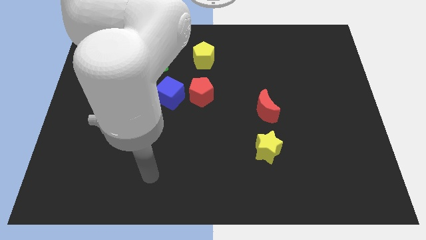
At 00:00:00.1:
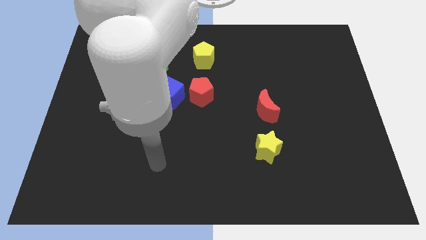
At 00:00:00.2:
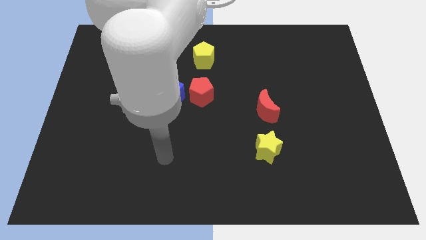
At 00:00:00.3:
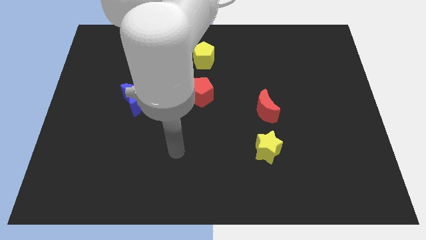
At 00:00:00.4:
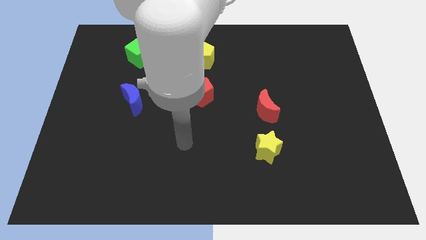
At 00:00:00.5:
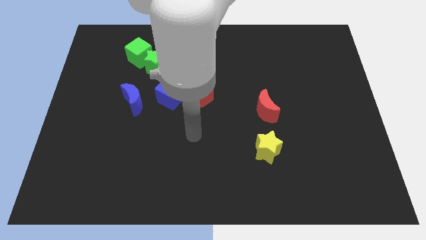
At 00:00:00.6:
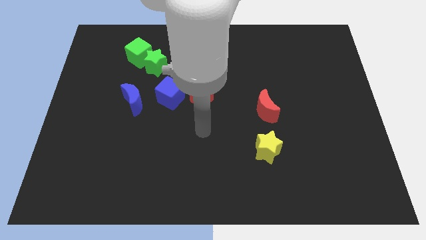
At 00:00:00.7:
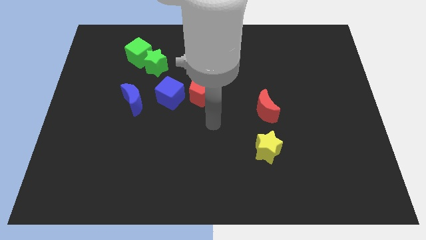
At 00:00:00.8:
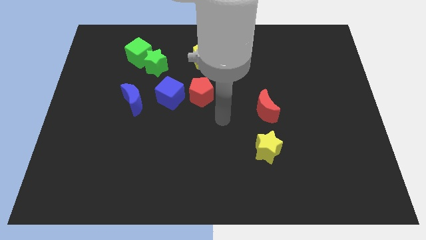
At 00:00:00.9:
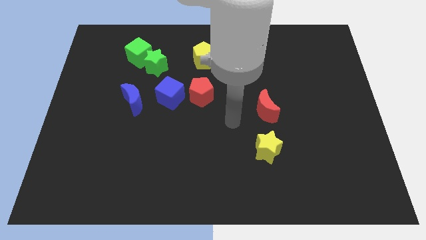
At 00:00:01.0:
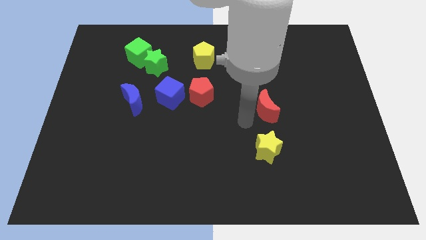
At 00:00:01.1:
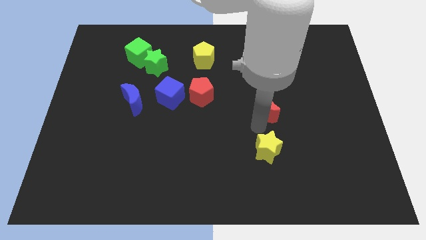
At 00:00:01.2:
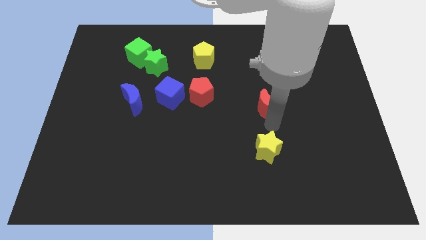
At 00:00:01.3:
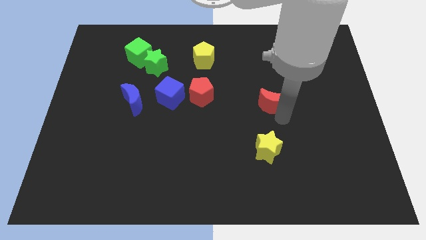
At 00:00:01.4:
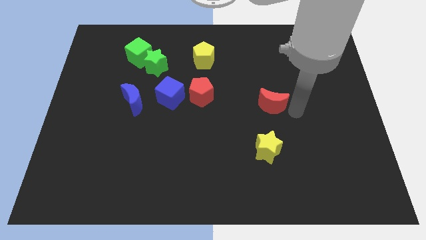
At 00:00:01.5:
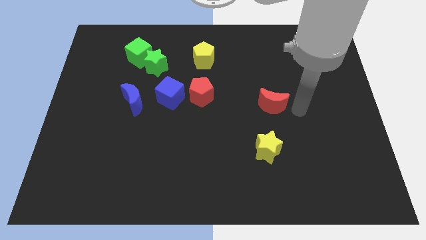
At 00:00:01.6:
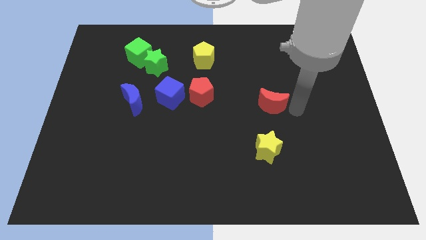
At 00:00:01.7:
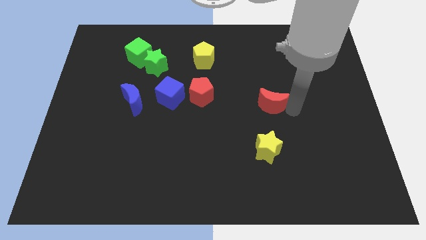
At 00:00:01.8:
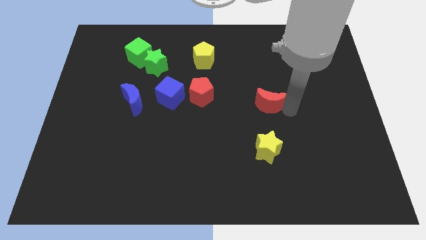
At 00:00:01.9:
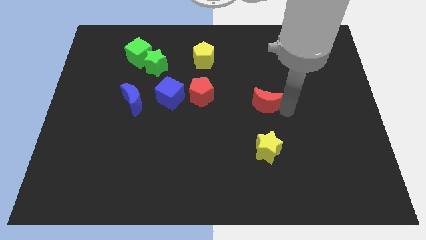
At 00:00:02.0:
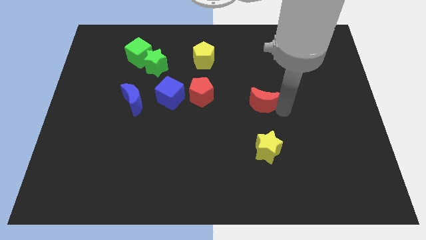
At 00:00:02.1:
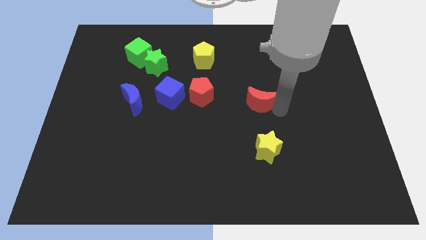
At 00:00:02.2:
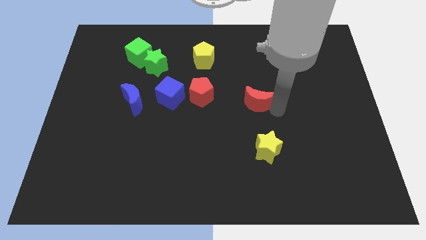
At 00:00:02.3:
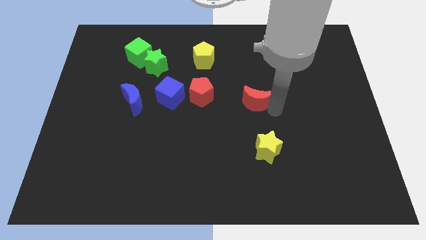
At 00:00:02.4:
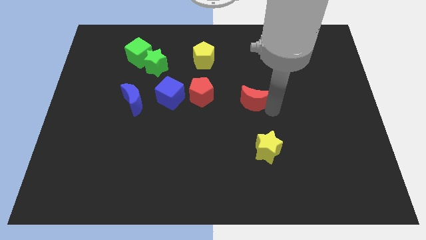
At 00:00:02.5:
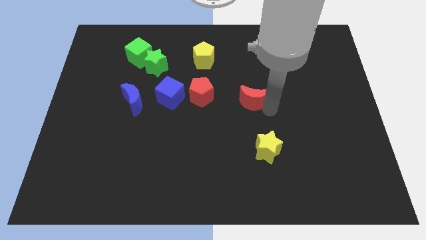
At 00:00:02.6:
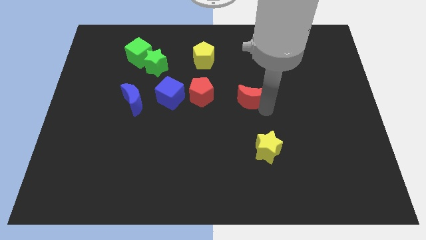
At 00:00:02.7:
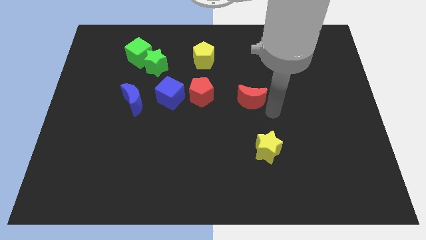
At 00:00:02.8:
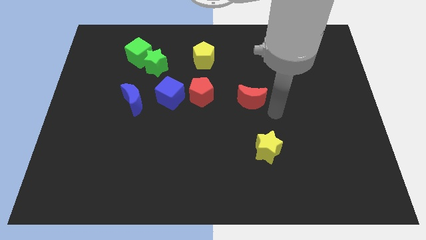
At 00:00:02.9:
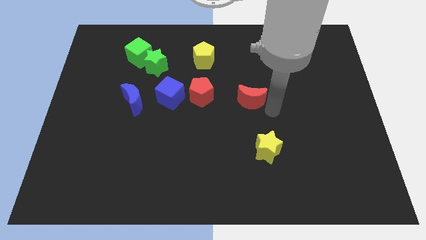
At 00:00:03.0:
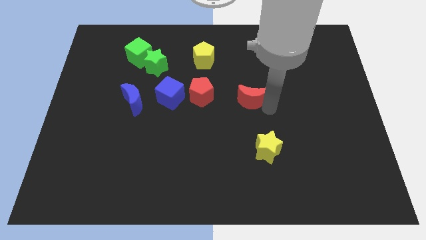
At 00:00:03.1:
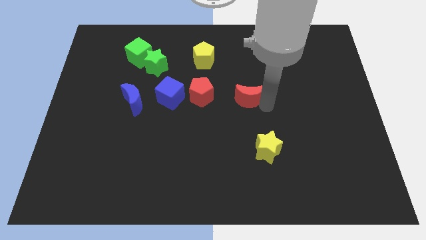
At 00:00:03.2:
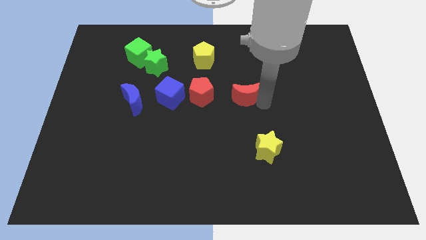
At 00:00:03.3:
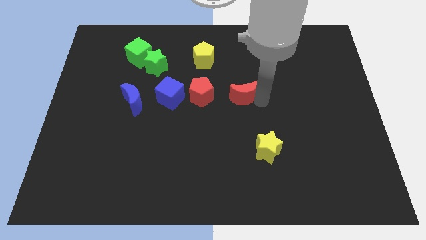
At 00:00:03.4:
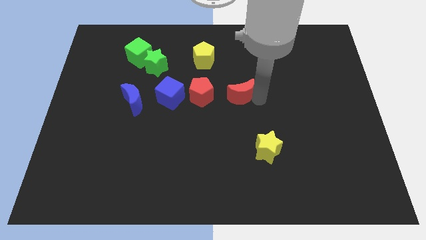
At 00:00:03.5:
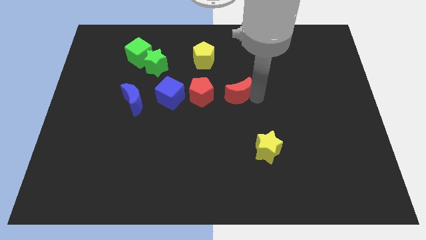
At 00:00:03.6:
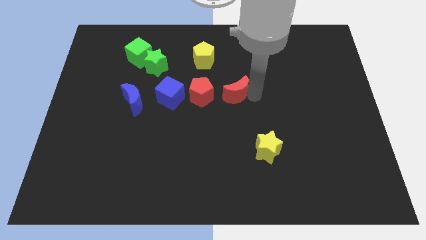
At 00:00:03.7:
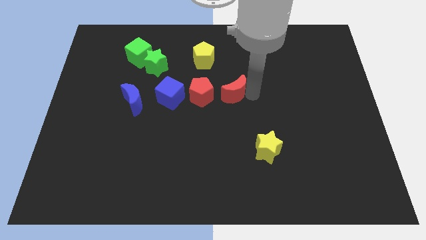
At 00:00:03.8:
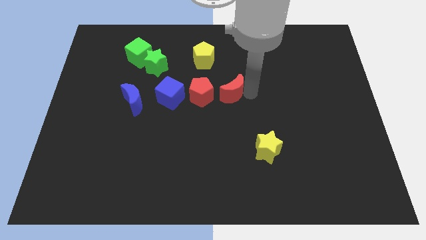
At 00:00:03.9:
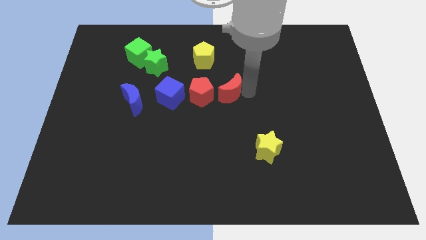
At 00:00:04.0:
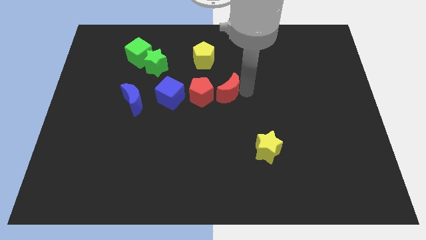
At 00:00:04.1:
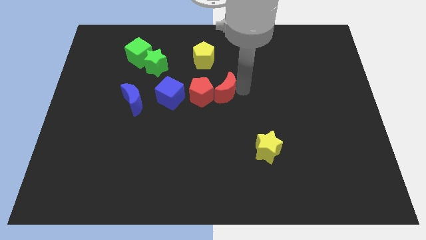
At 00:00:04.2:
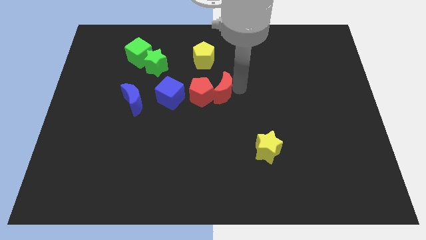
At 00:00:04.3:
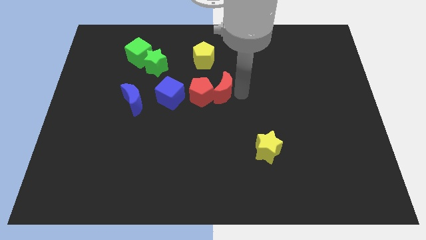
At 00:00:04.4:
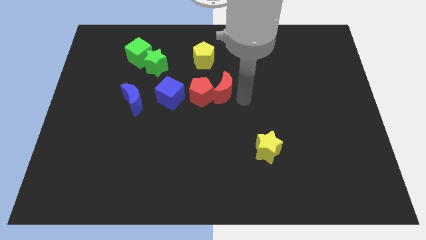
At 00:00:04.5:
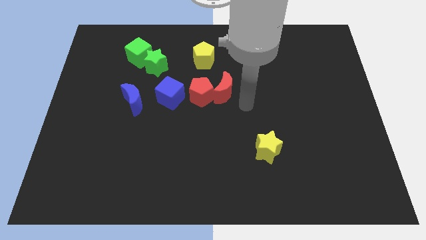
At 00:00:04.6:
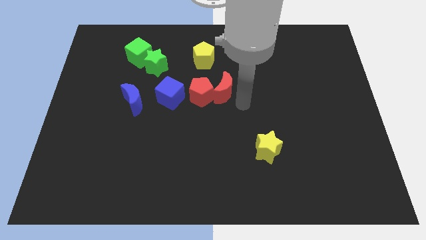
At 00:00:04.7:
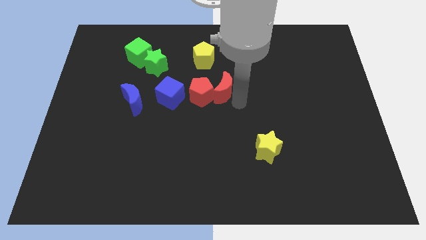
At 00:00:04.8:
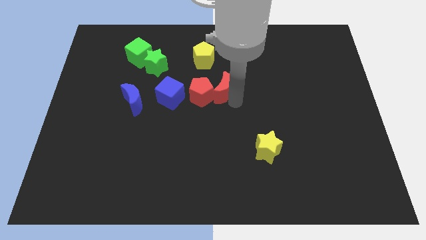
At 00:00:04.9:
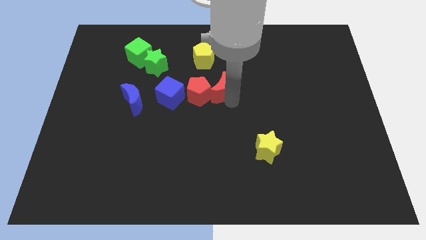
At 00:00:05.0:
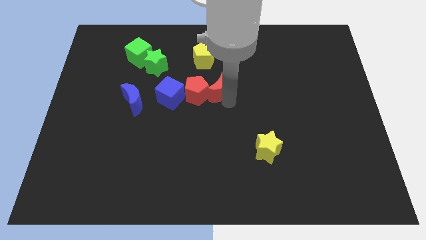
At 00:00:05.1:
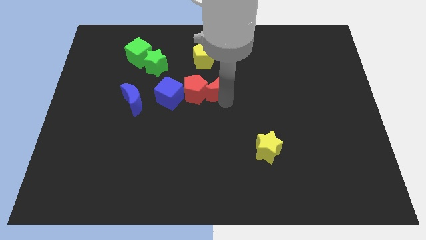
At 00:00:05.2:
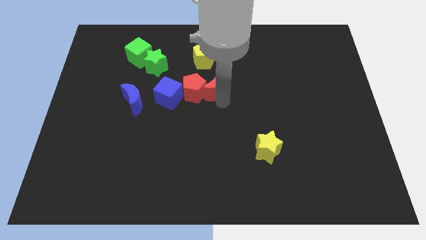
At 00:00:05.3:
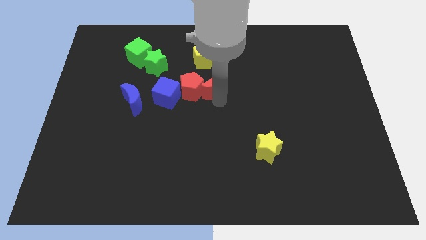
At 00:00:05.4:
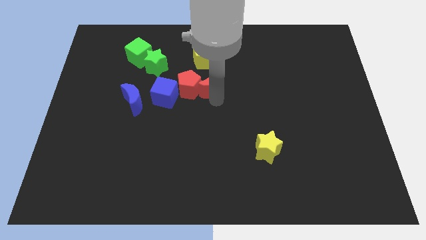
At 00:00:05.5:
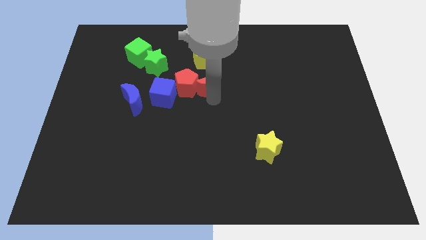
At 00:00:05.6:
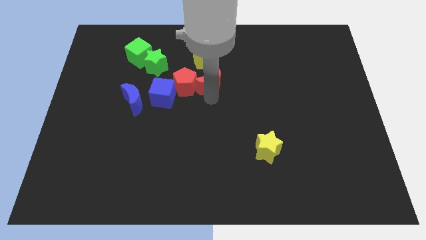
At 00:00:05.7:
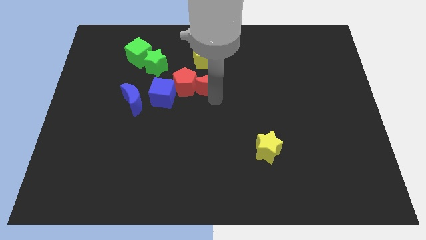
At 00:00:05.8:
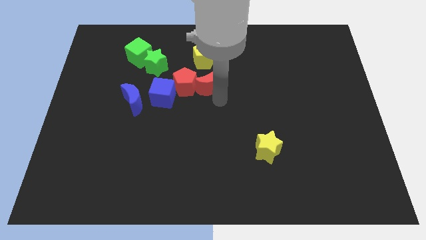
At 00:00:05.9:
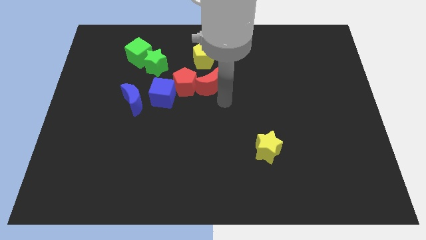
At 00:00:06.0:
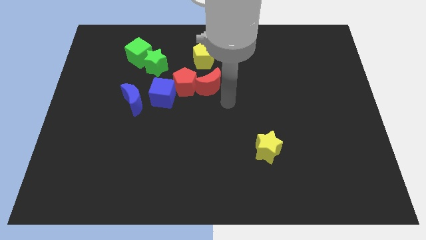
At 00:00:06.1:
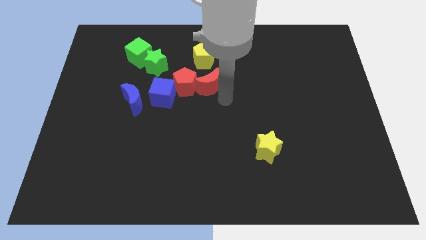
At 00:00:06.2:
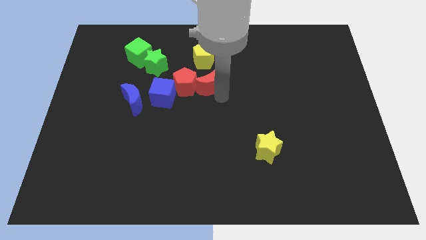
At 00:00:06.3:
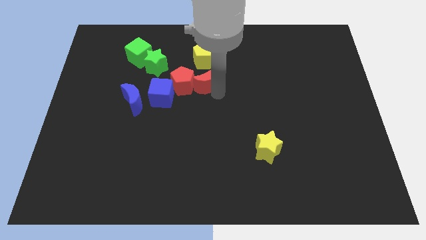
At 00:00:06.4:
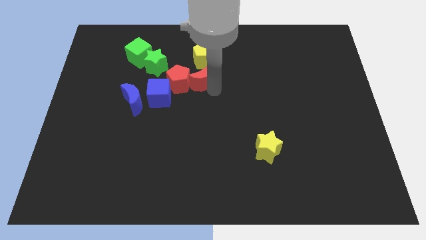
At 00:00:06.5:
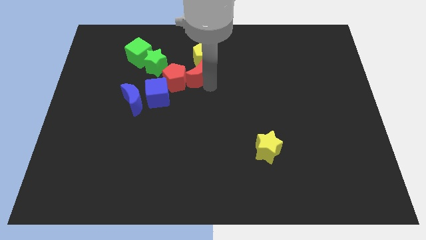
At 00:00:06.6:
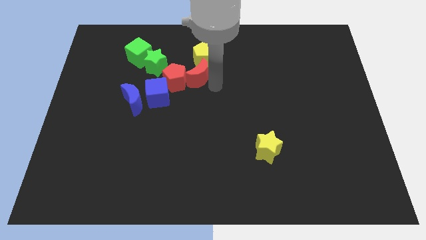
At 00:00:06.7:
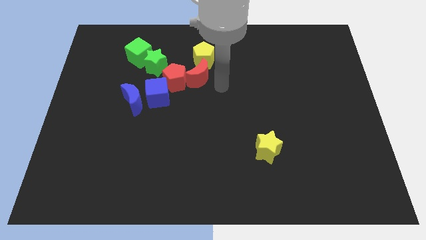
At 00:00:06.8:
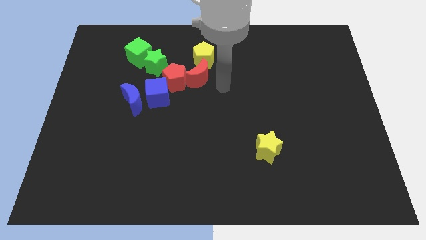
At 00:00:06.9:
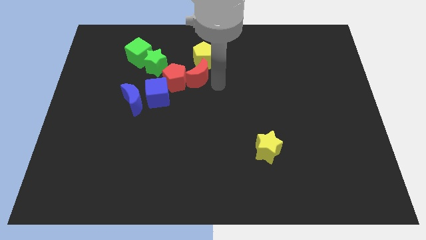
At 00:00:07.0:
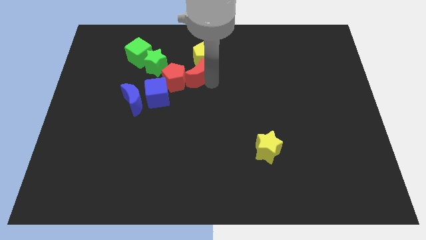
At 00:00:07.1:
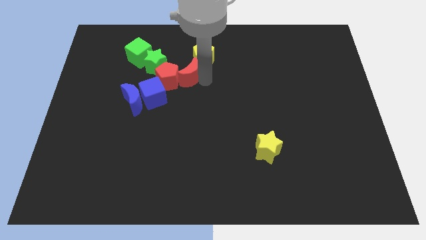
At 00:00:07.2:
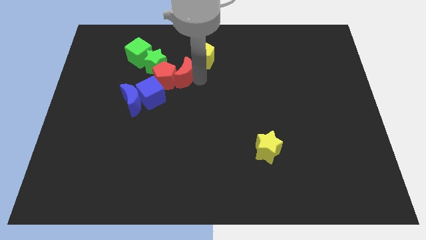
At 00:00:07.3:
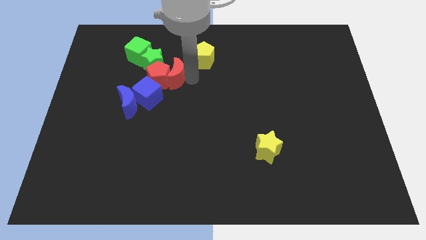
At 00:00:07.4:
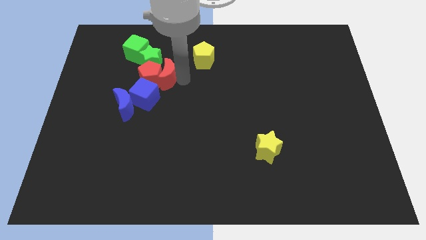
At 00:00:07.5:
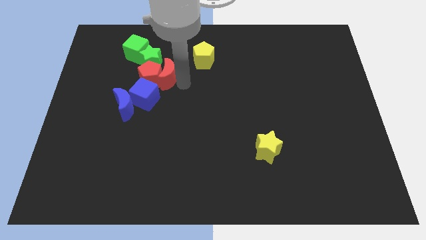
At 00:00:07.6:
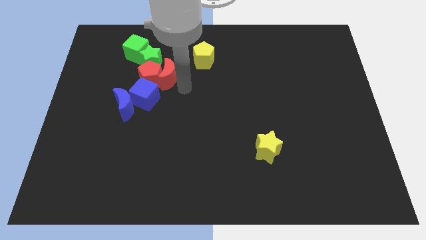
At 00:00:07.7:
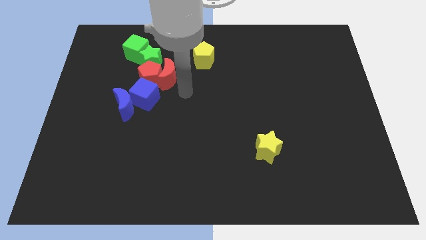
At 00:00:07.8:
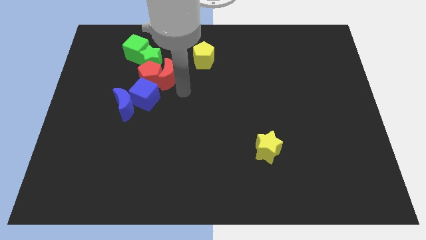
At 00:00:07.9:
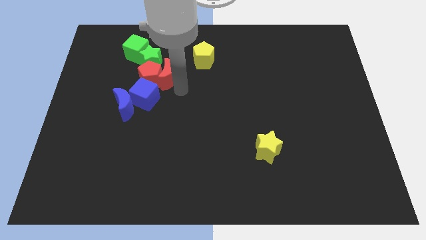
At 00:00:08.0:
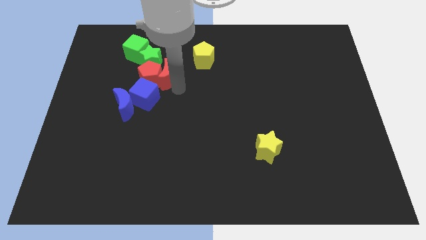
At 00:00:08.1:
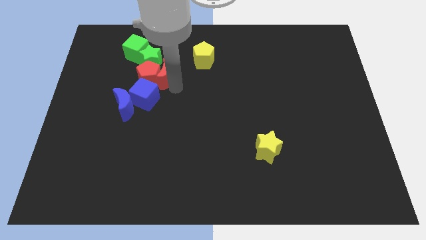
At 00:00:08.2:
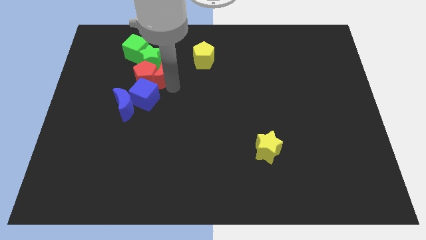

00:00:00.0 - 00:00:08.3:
push the red moon next to the green star
